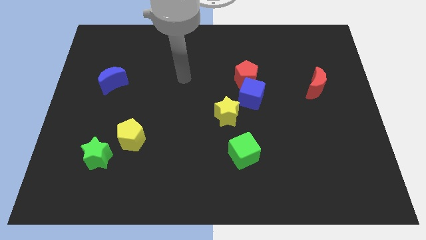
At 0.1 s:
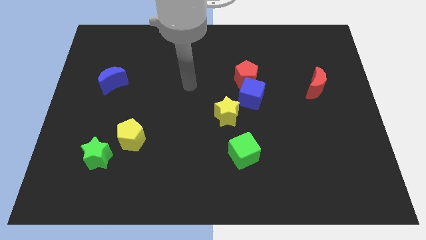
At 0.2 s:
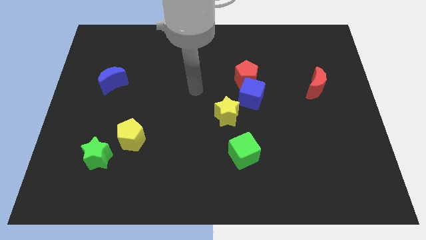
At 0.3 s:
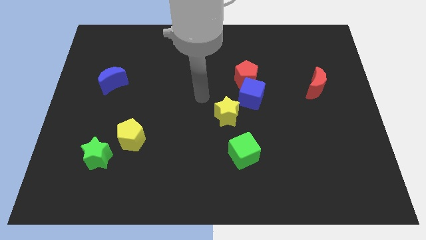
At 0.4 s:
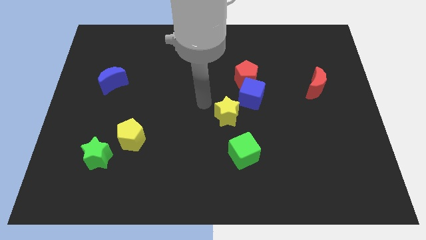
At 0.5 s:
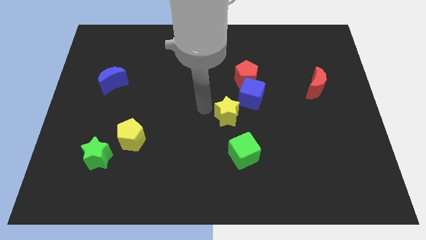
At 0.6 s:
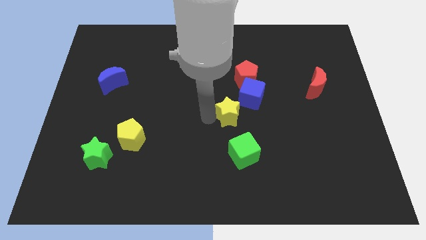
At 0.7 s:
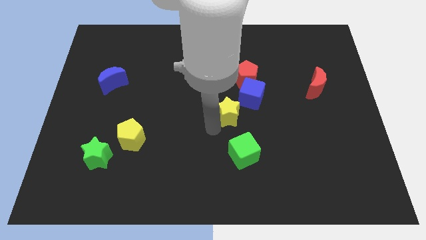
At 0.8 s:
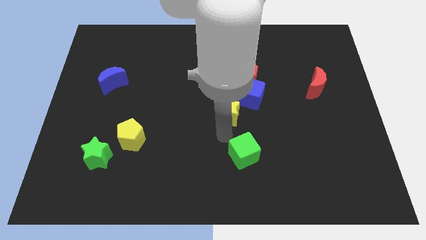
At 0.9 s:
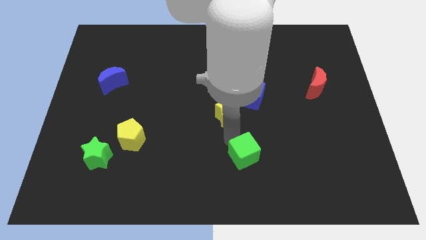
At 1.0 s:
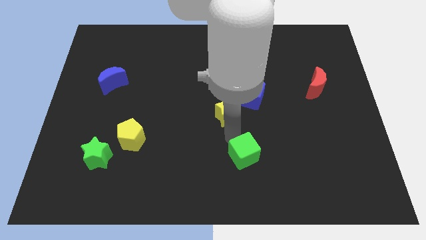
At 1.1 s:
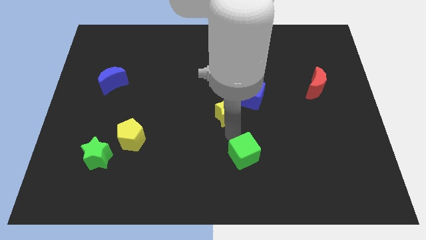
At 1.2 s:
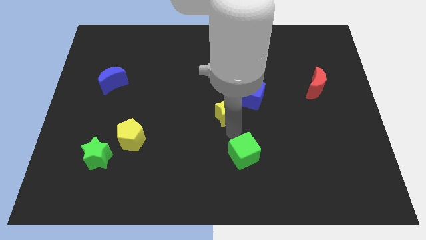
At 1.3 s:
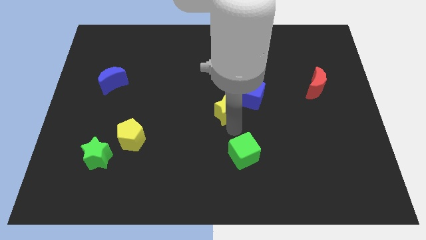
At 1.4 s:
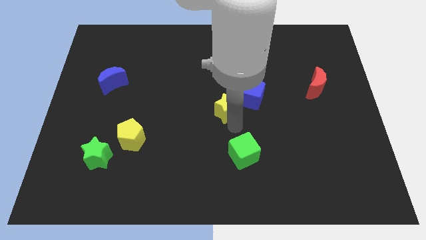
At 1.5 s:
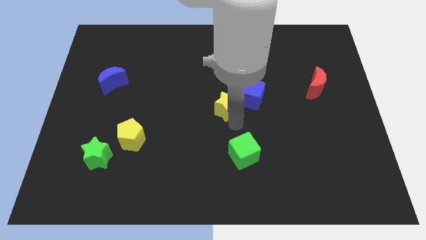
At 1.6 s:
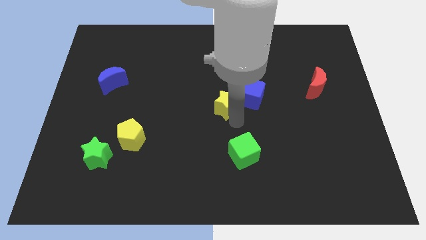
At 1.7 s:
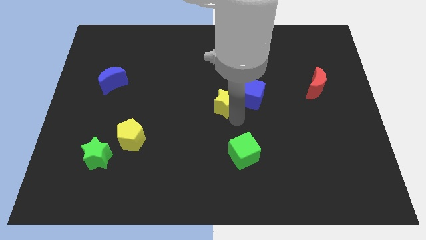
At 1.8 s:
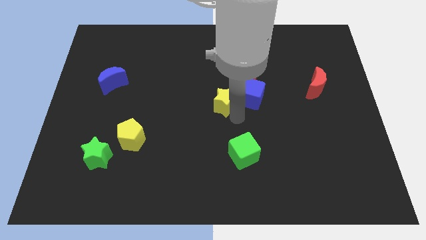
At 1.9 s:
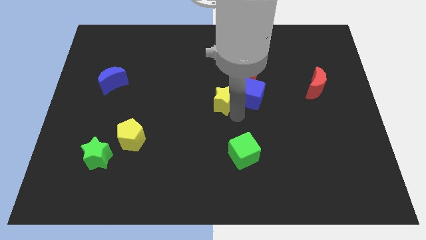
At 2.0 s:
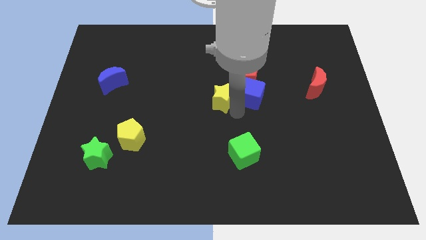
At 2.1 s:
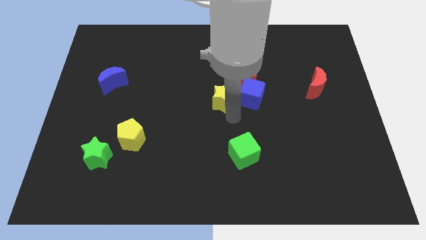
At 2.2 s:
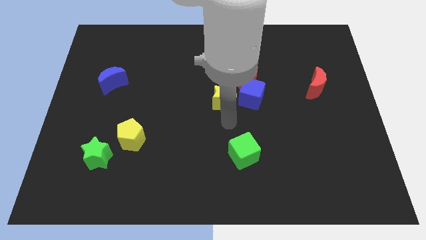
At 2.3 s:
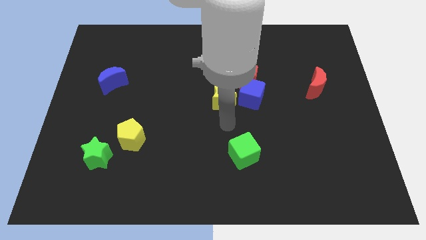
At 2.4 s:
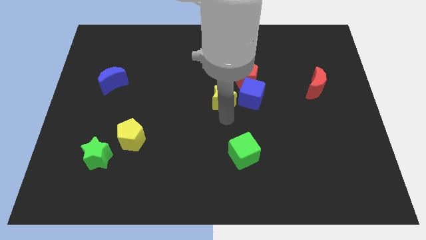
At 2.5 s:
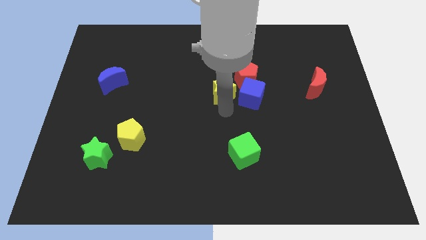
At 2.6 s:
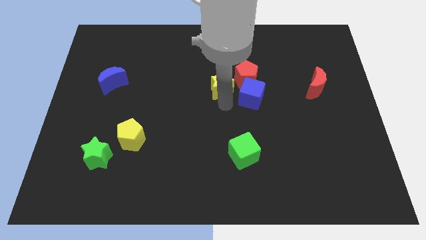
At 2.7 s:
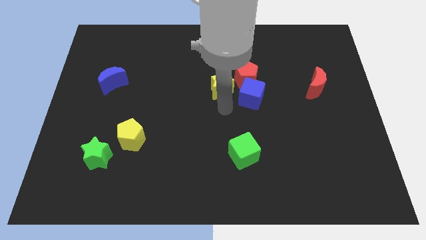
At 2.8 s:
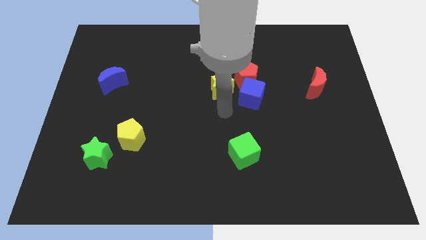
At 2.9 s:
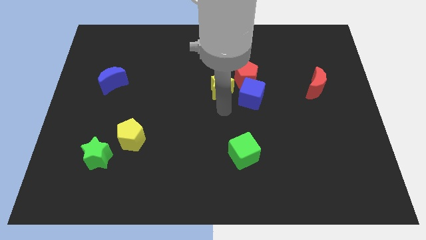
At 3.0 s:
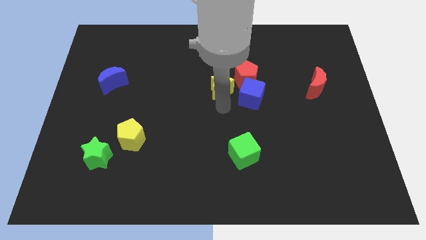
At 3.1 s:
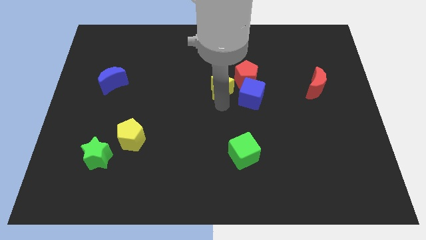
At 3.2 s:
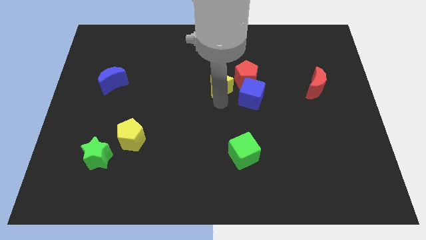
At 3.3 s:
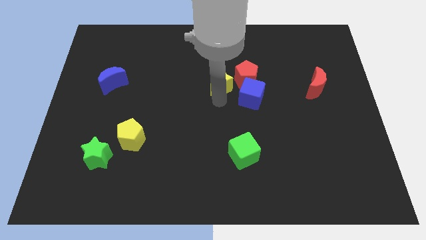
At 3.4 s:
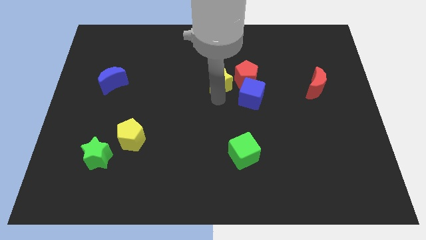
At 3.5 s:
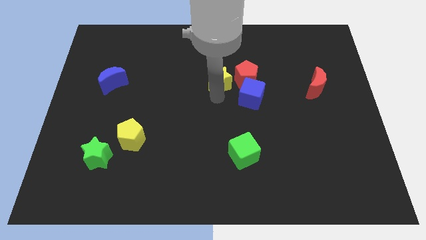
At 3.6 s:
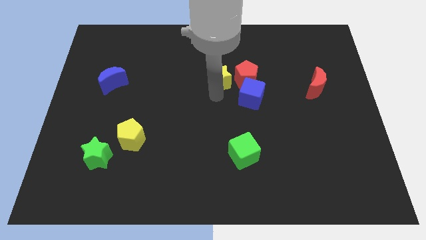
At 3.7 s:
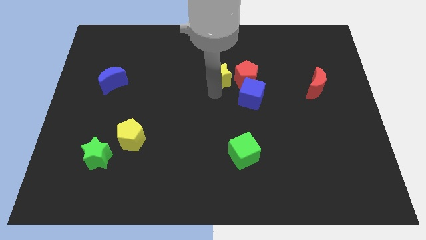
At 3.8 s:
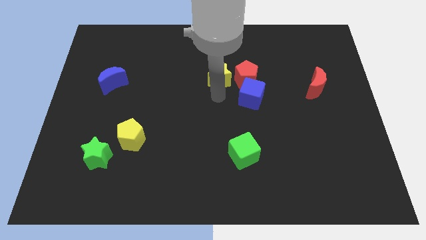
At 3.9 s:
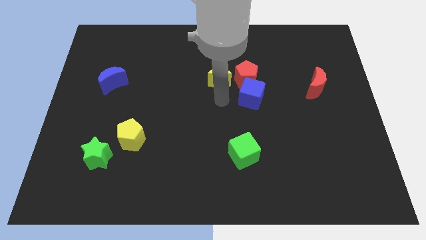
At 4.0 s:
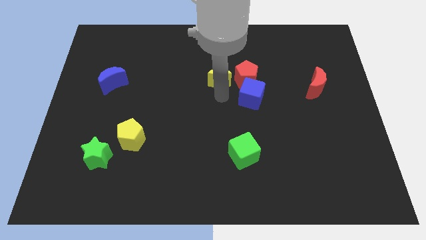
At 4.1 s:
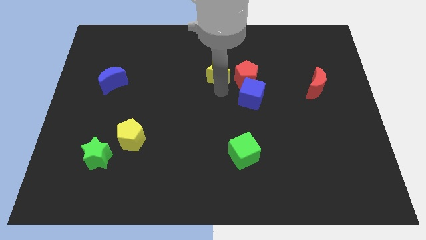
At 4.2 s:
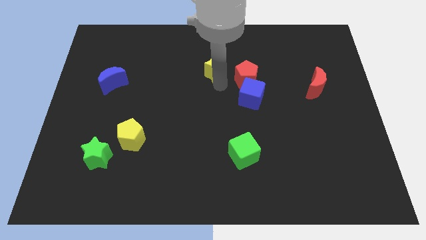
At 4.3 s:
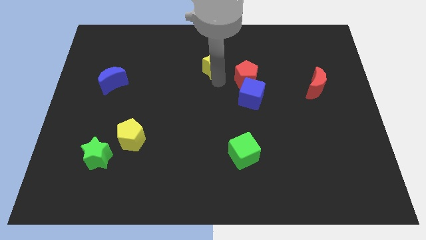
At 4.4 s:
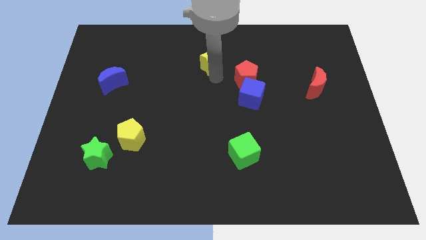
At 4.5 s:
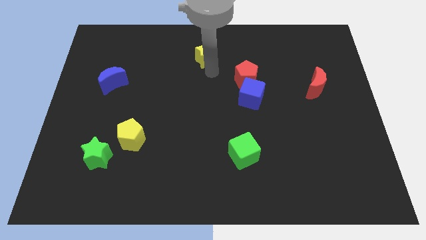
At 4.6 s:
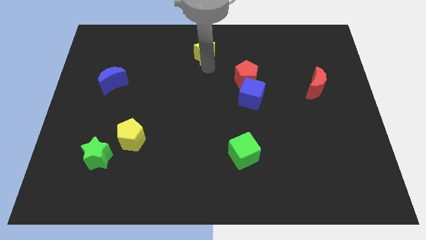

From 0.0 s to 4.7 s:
push the yellow star to the top

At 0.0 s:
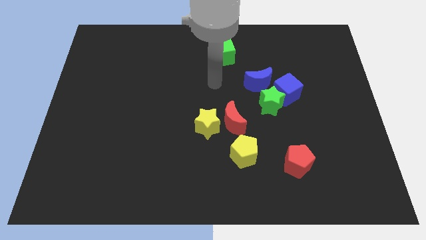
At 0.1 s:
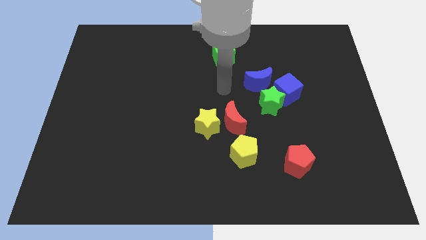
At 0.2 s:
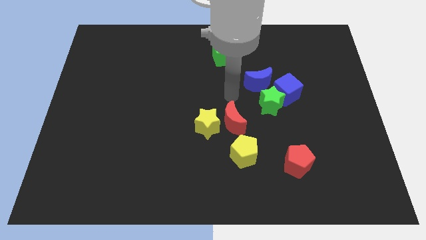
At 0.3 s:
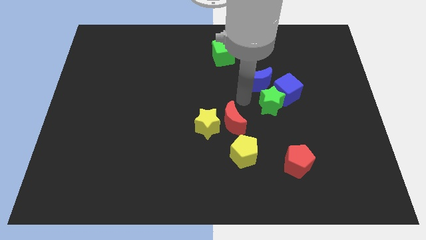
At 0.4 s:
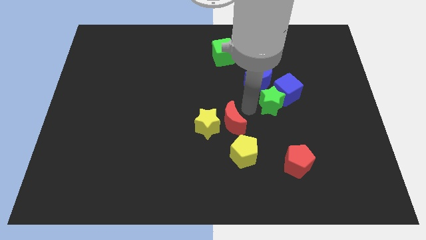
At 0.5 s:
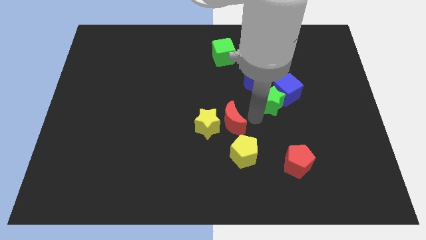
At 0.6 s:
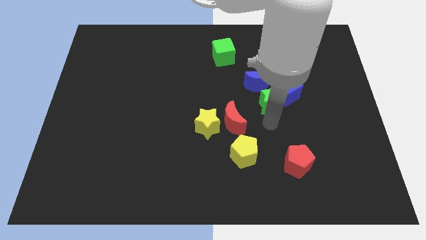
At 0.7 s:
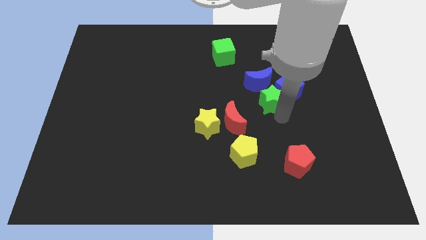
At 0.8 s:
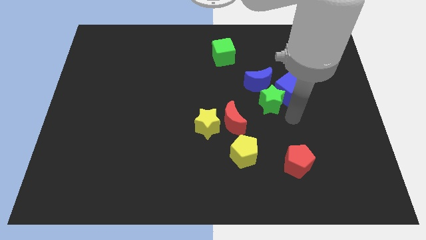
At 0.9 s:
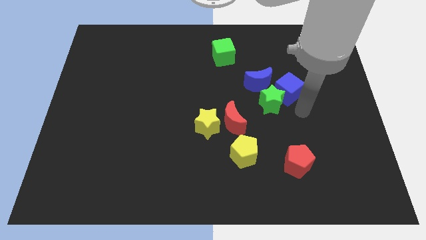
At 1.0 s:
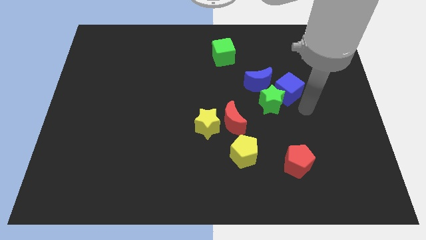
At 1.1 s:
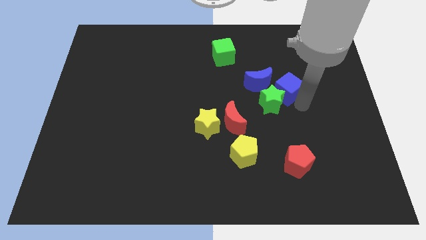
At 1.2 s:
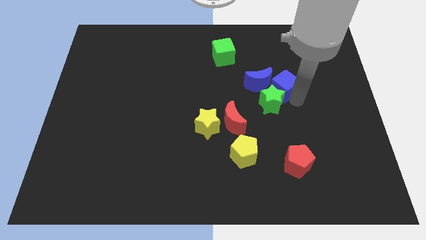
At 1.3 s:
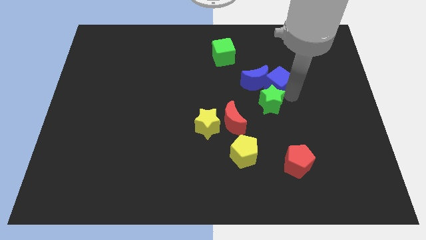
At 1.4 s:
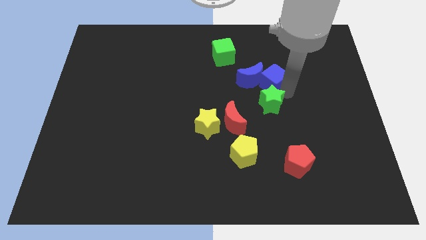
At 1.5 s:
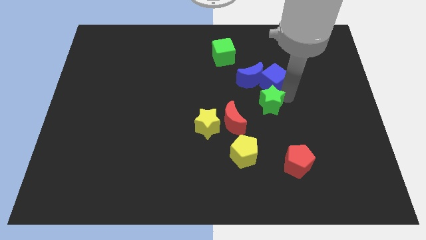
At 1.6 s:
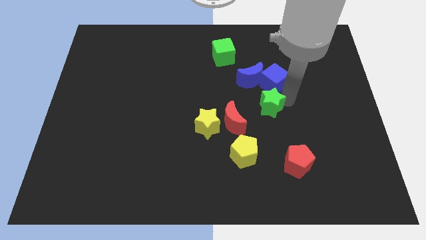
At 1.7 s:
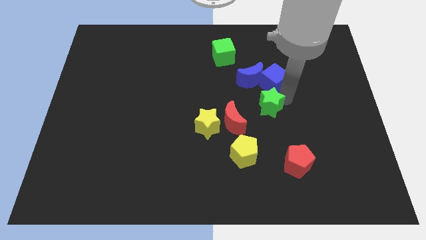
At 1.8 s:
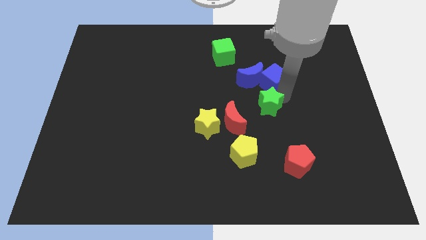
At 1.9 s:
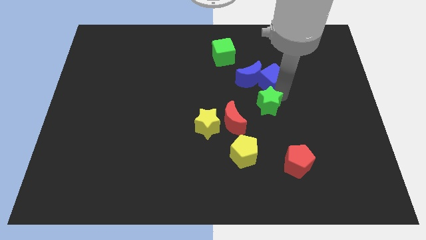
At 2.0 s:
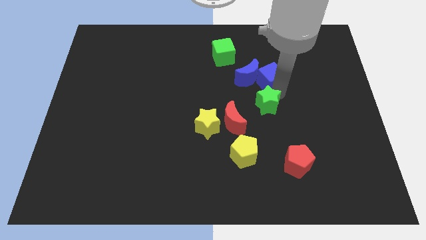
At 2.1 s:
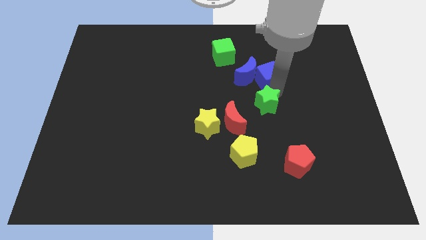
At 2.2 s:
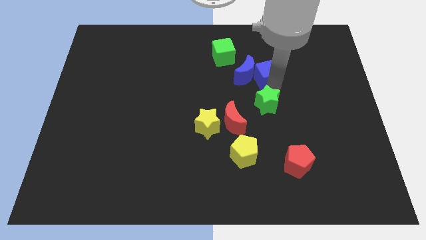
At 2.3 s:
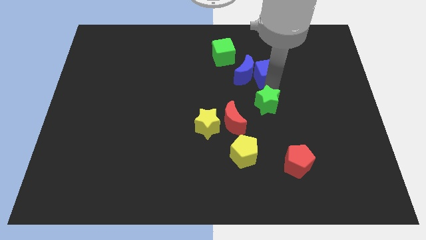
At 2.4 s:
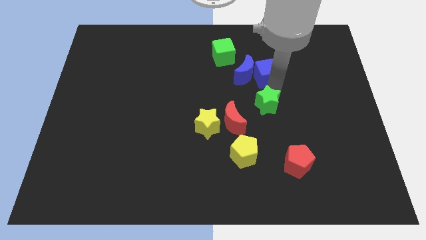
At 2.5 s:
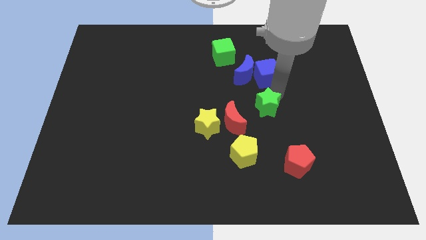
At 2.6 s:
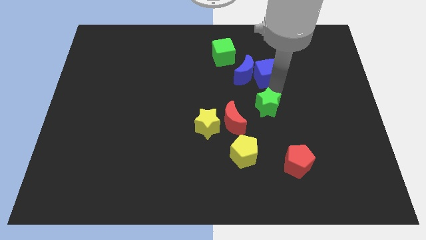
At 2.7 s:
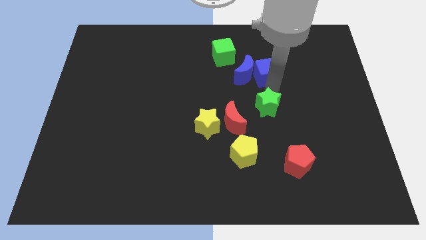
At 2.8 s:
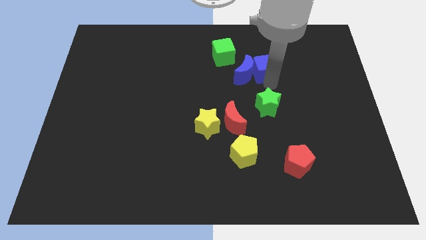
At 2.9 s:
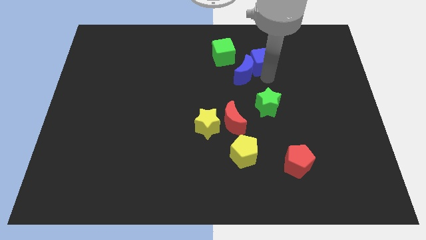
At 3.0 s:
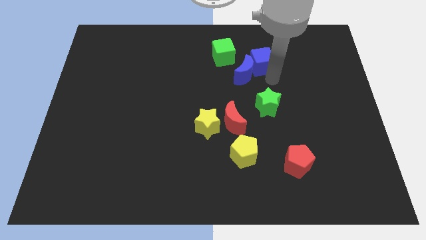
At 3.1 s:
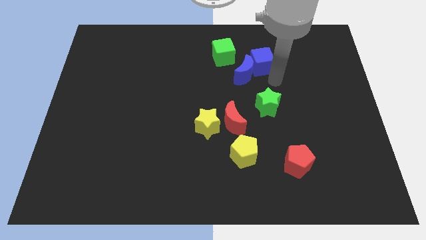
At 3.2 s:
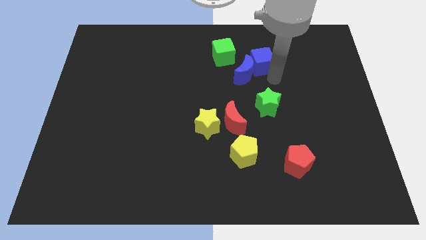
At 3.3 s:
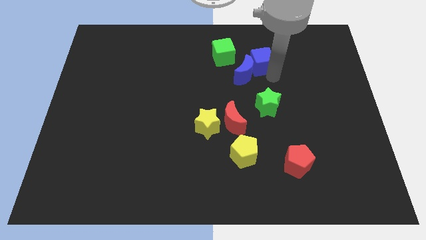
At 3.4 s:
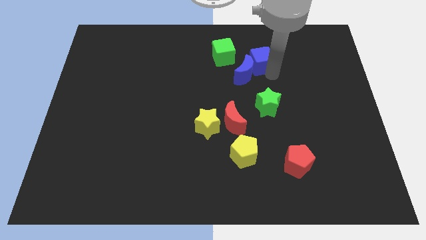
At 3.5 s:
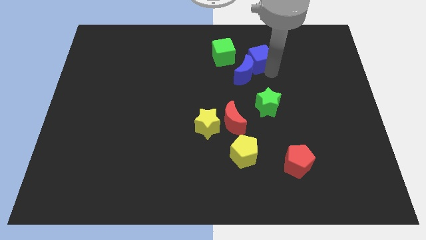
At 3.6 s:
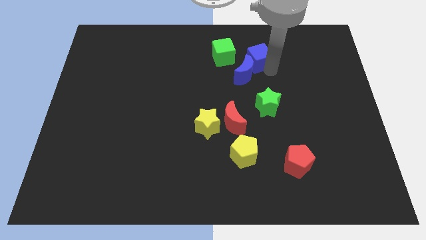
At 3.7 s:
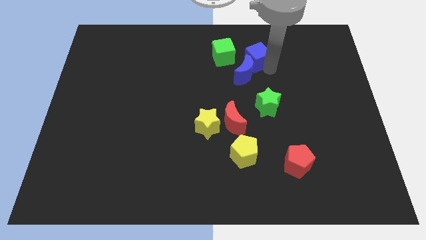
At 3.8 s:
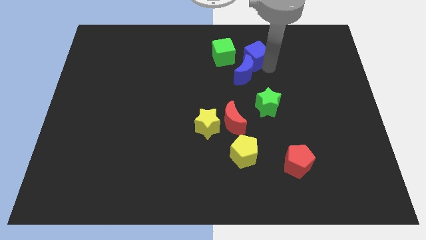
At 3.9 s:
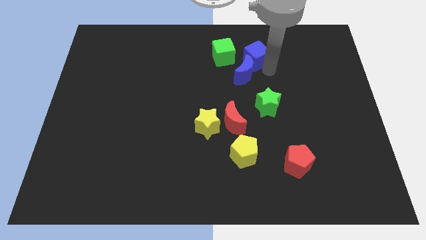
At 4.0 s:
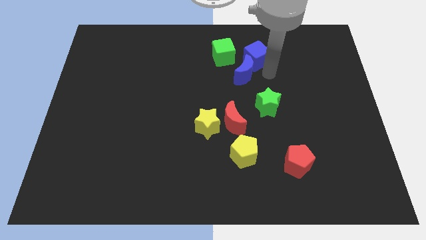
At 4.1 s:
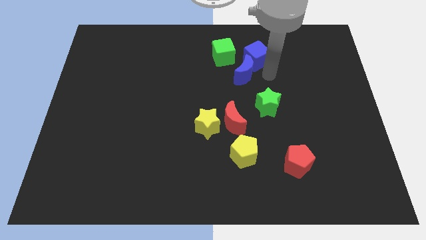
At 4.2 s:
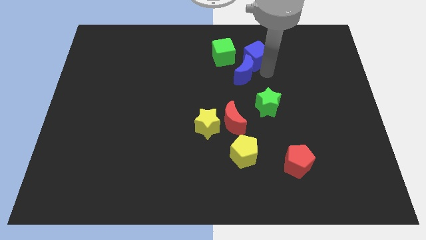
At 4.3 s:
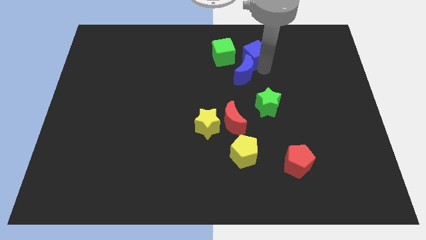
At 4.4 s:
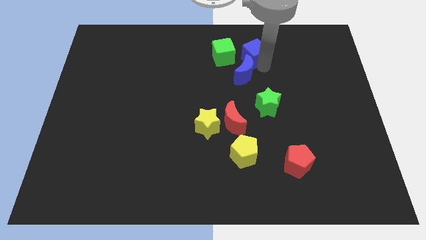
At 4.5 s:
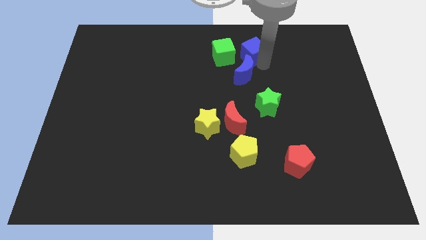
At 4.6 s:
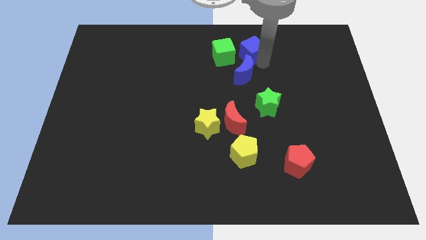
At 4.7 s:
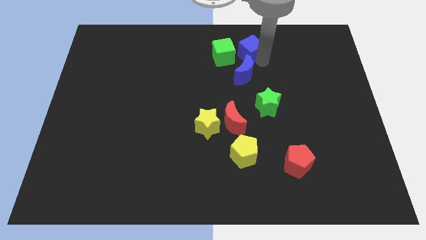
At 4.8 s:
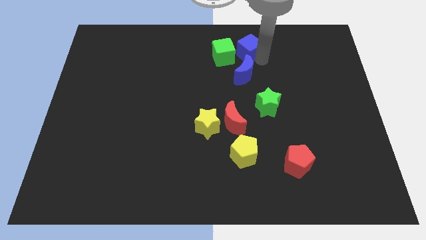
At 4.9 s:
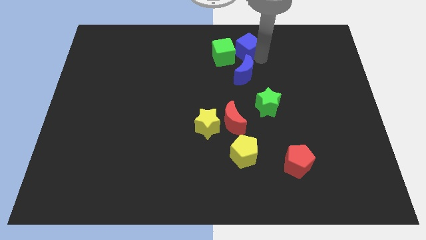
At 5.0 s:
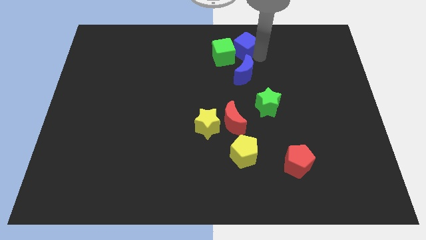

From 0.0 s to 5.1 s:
put the blue cube to the top side
